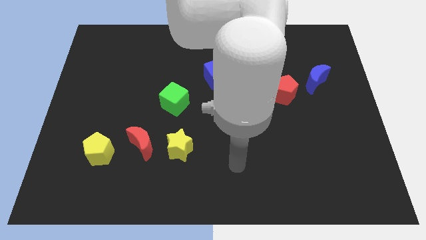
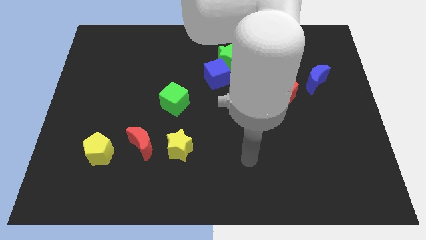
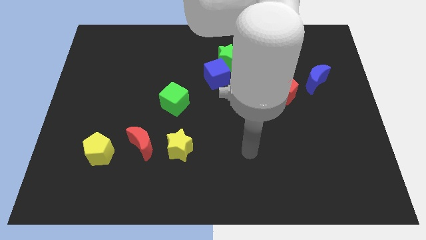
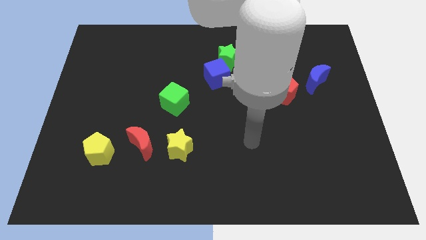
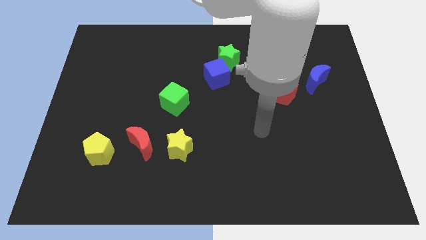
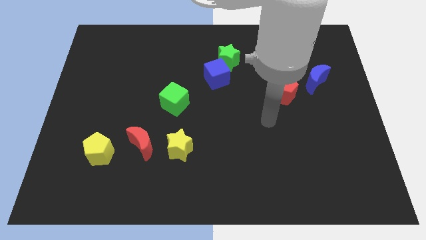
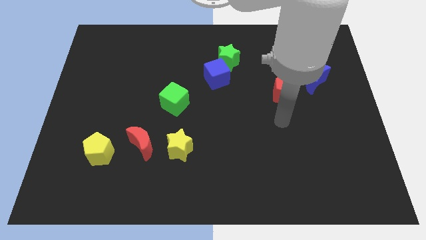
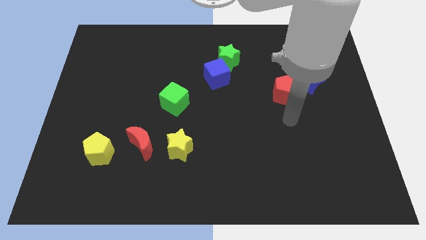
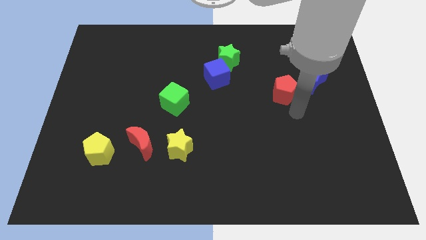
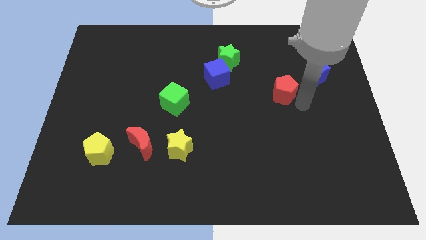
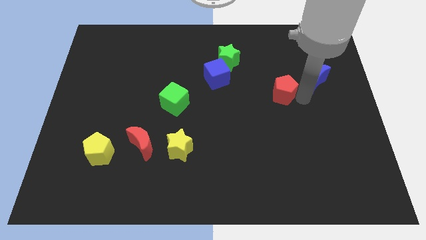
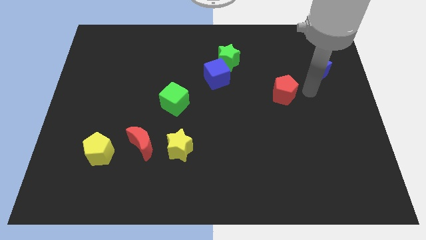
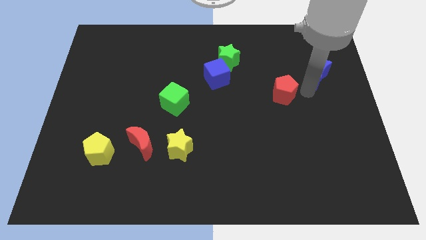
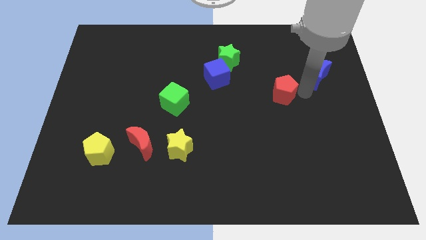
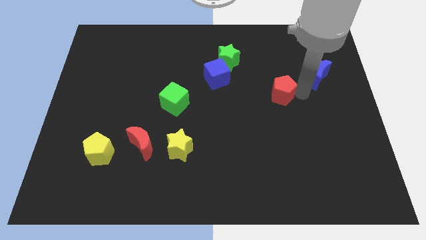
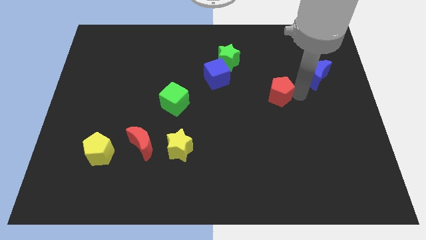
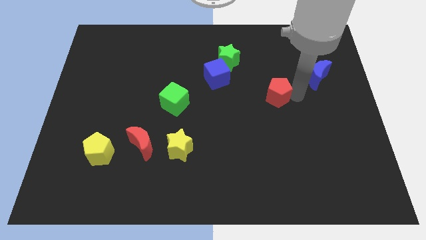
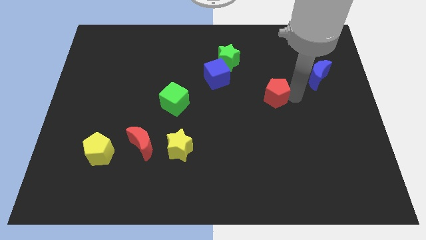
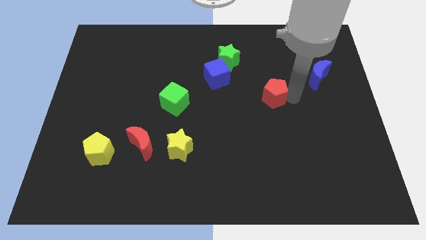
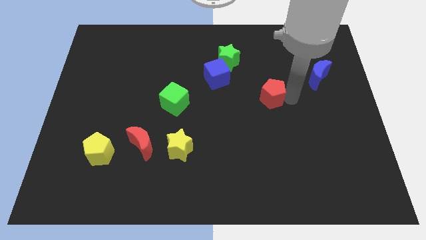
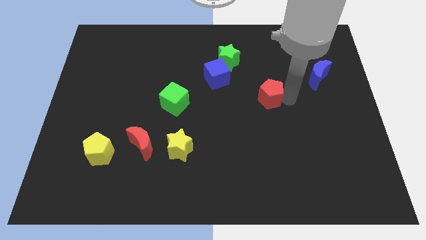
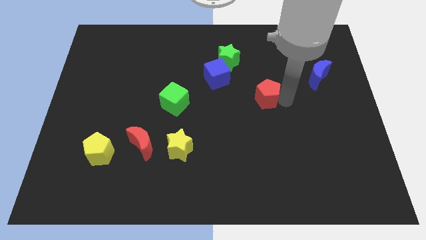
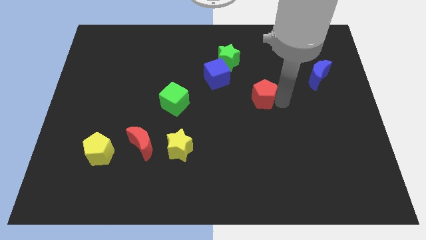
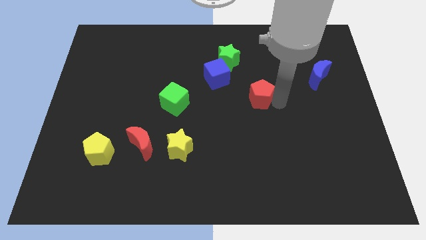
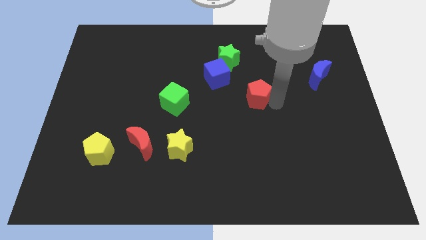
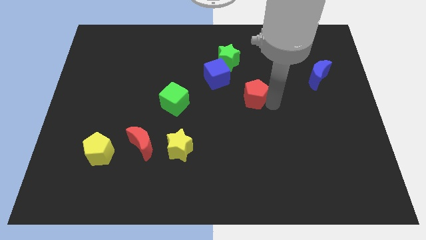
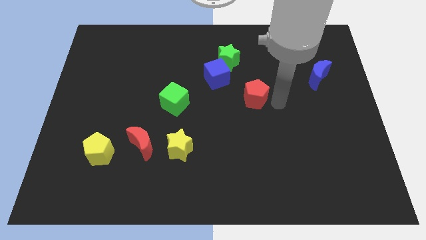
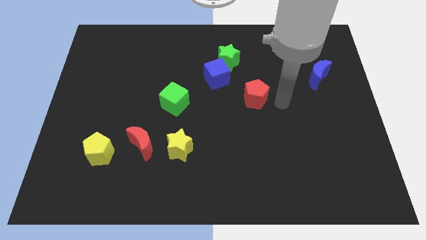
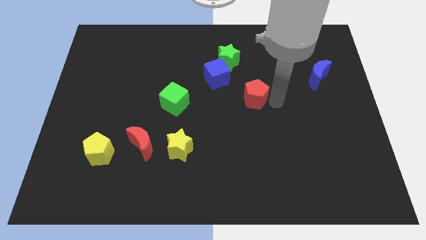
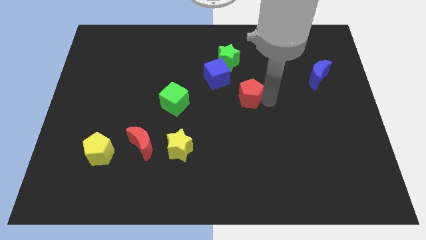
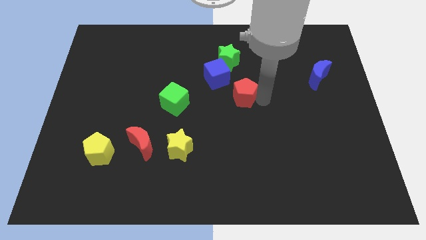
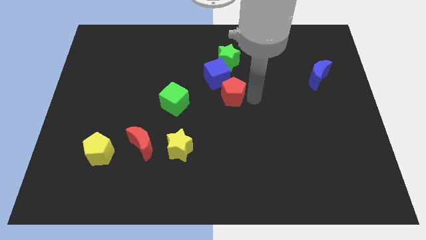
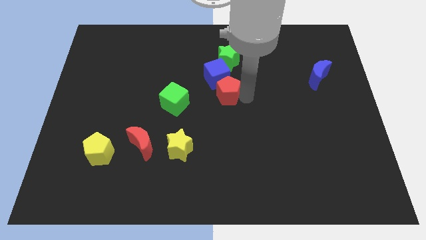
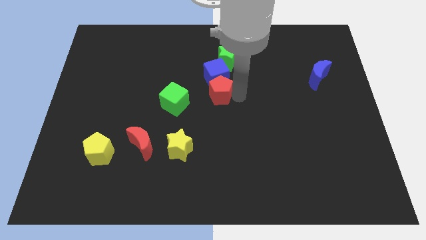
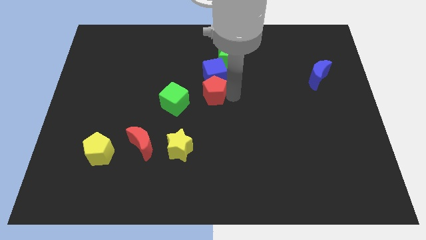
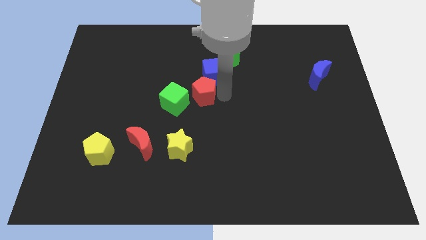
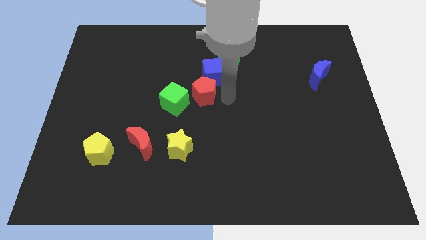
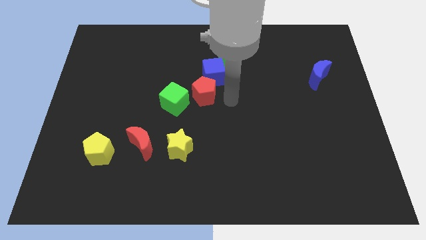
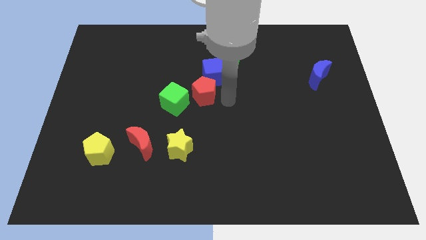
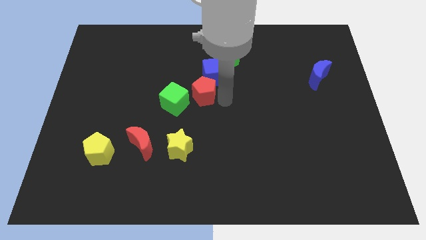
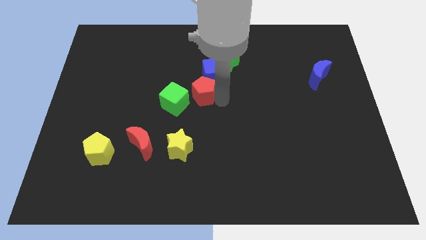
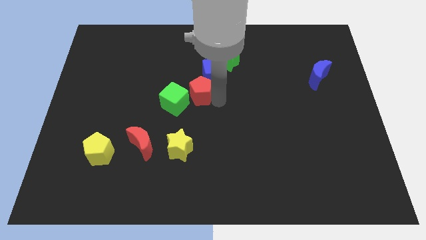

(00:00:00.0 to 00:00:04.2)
push the red pentagon to the left

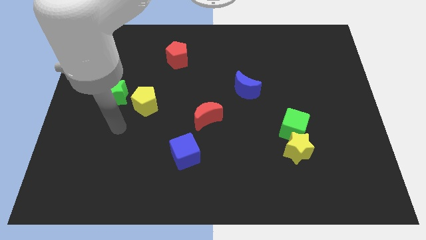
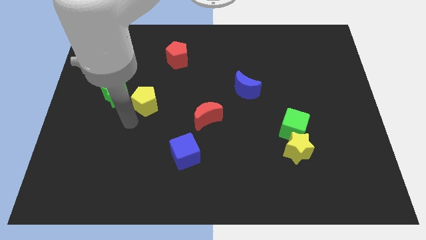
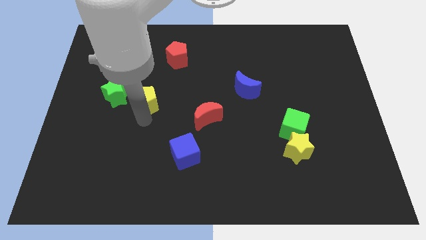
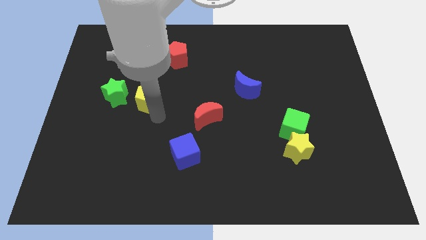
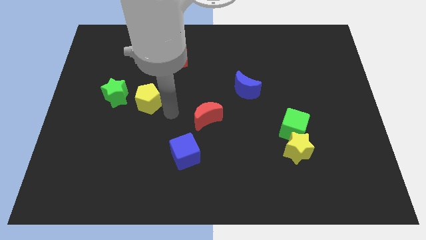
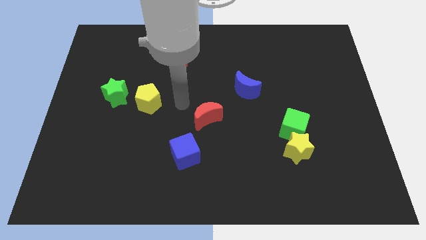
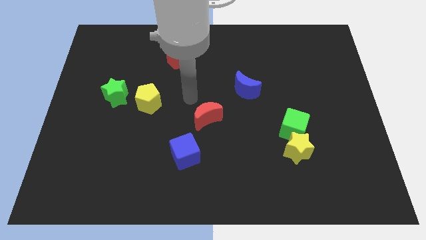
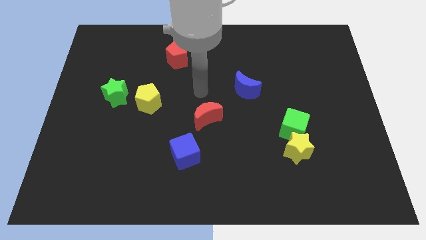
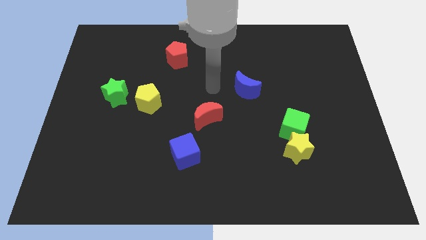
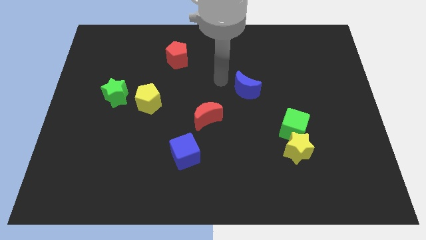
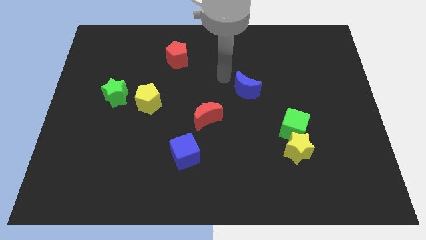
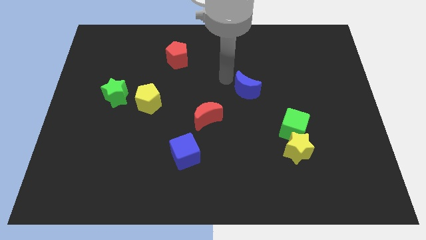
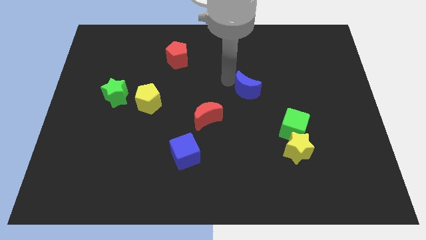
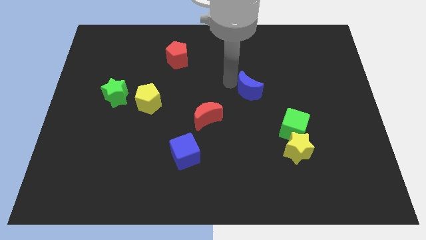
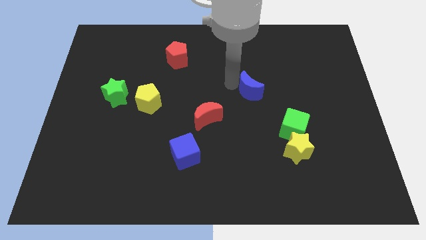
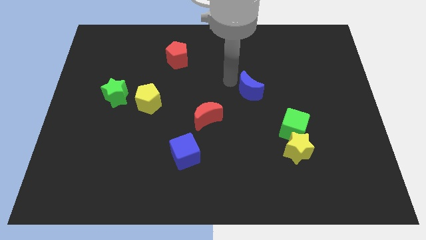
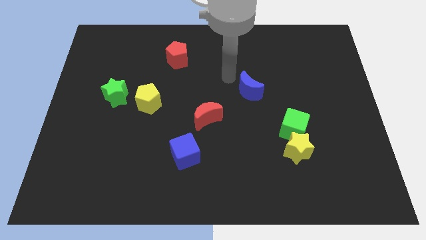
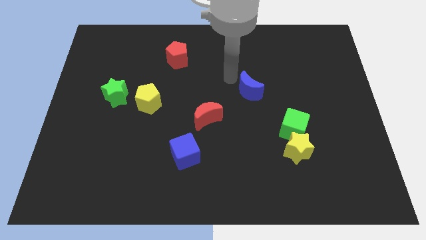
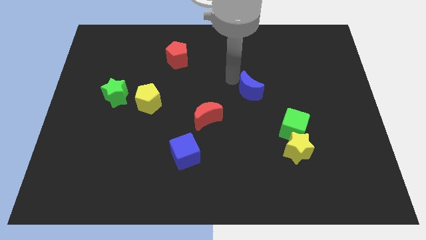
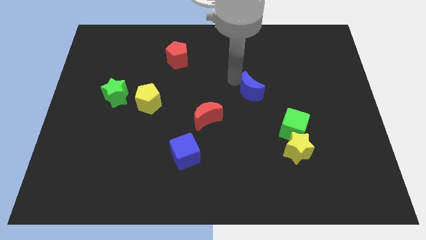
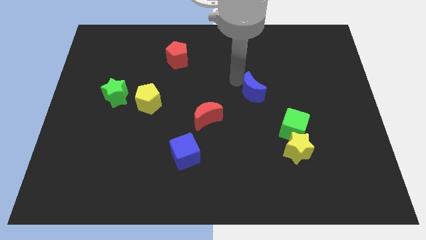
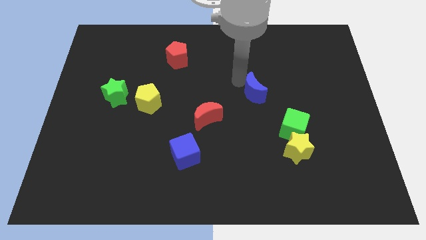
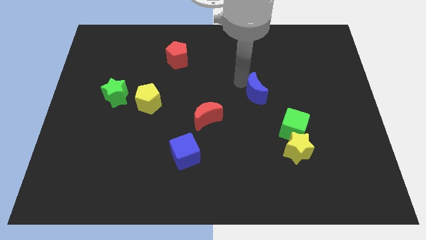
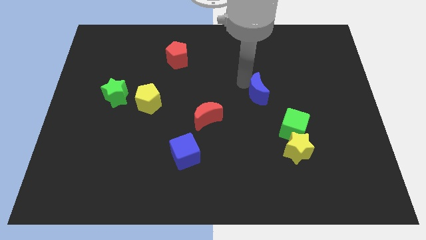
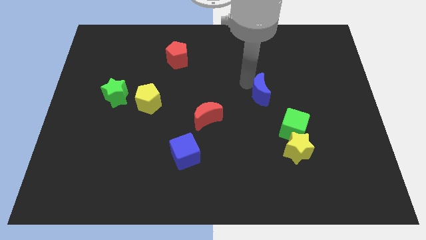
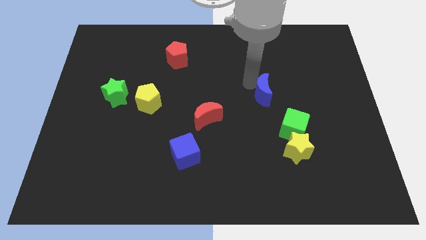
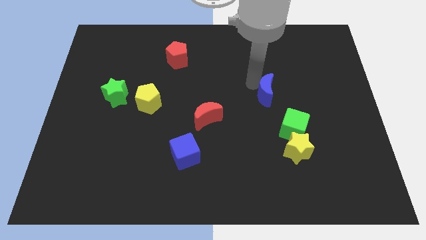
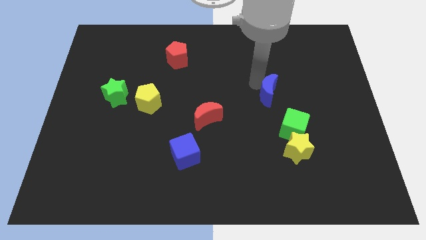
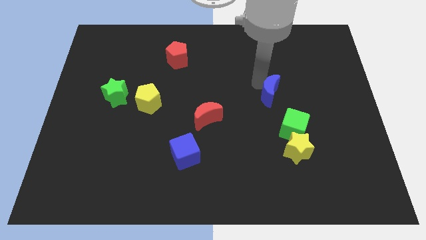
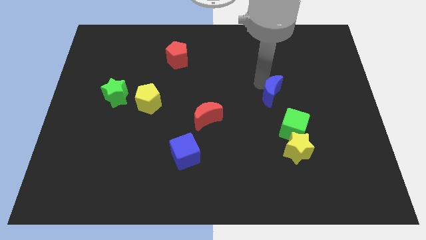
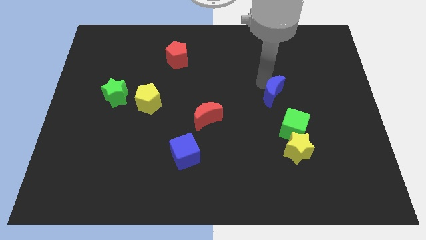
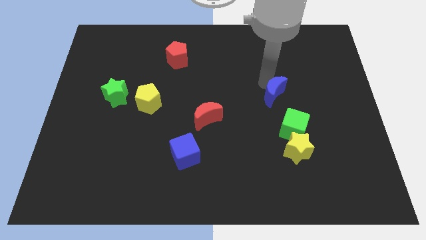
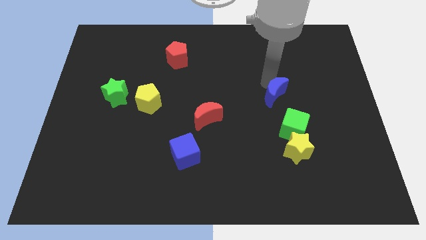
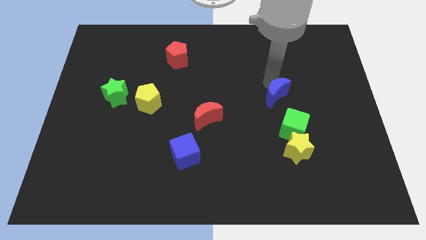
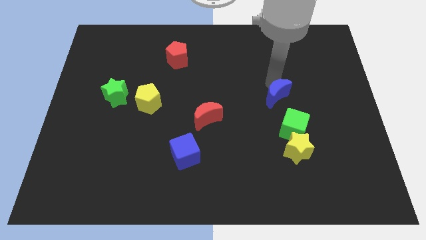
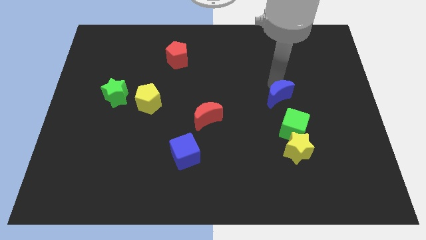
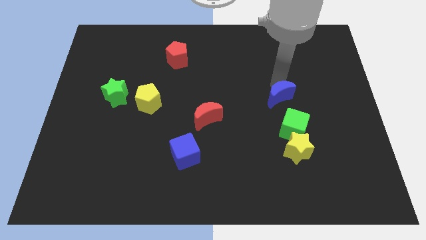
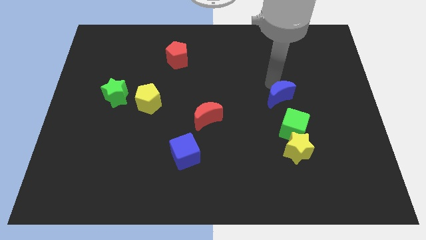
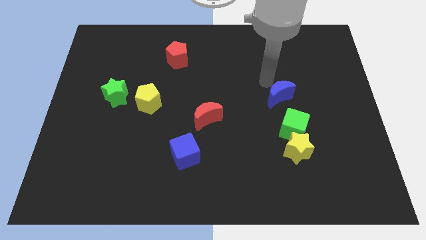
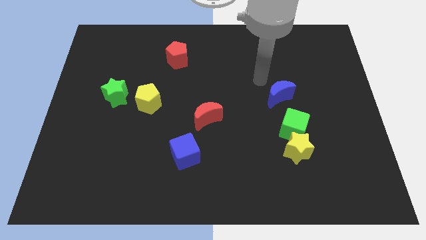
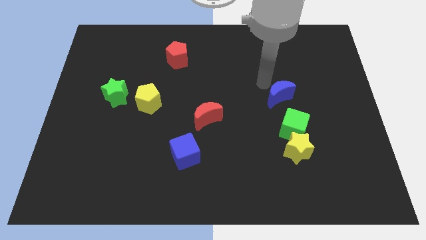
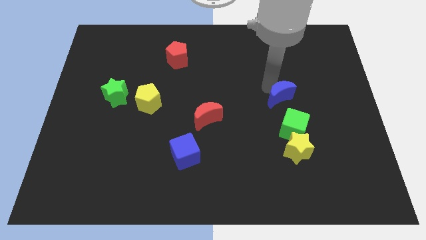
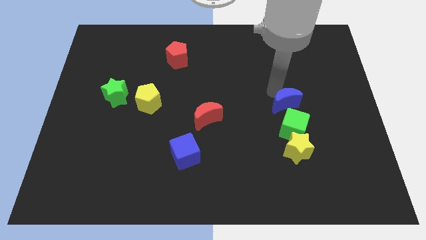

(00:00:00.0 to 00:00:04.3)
push the blue moon downwards and then to the right a little bit
